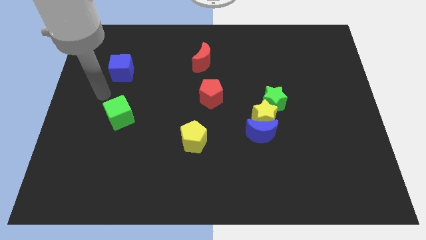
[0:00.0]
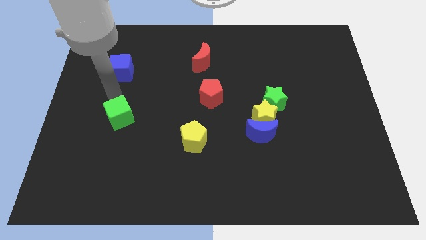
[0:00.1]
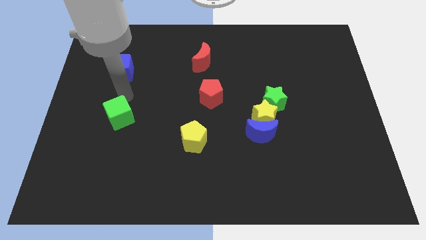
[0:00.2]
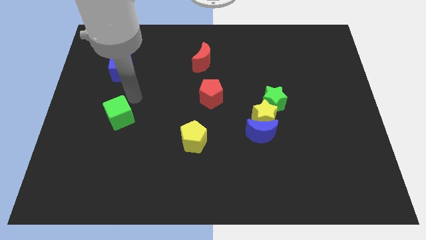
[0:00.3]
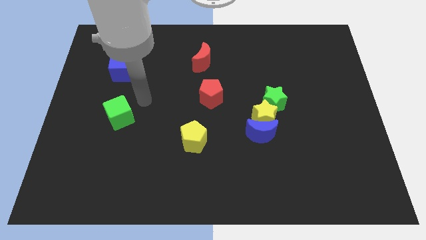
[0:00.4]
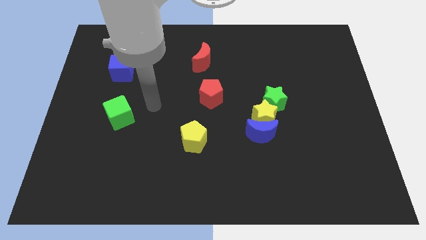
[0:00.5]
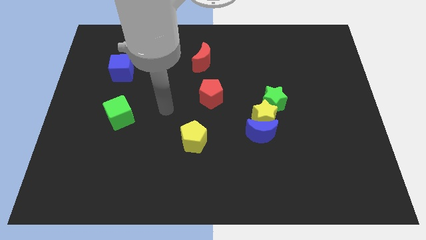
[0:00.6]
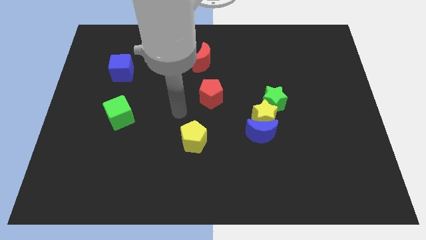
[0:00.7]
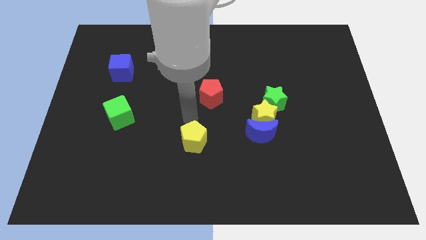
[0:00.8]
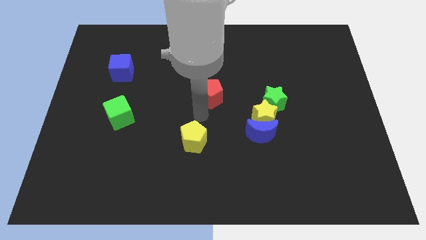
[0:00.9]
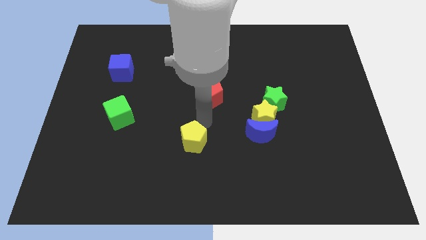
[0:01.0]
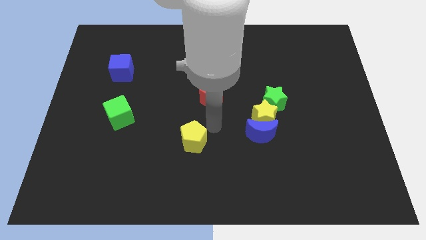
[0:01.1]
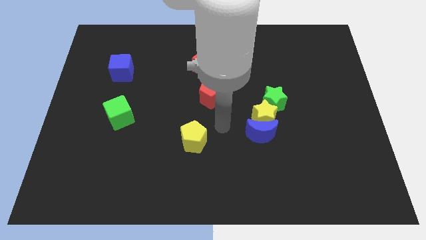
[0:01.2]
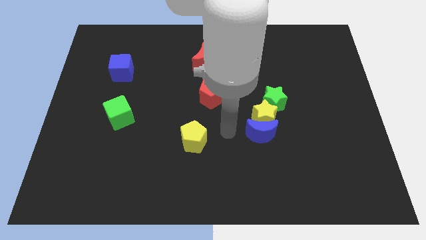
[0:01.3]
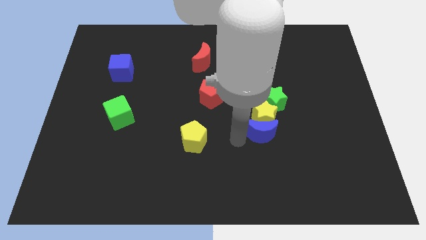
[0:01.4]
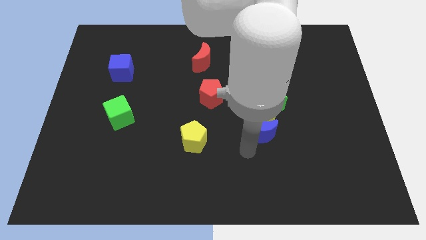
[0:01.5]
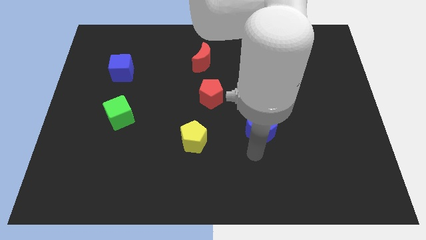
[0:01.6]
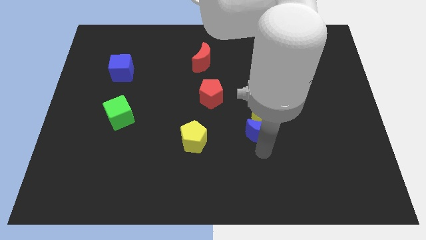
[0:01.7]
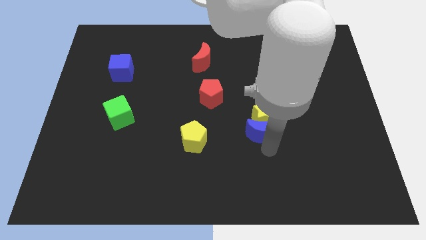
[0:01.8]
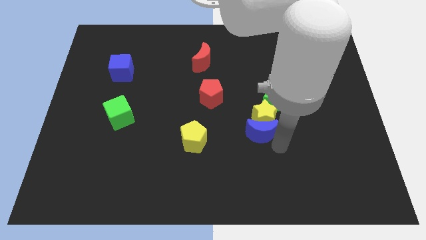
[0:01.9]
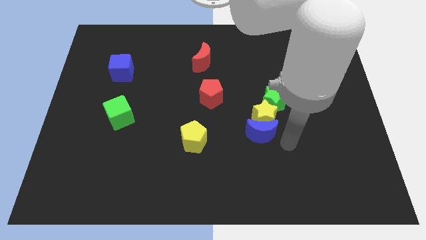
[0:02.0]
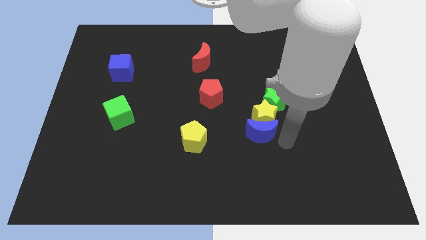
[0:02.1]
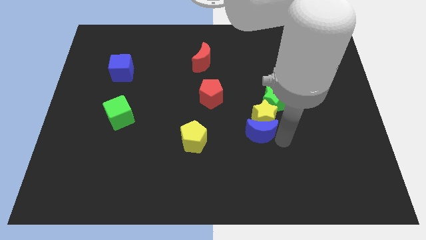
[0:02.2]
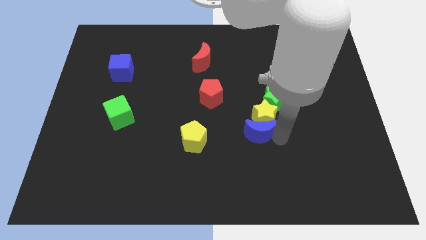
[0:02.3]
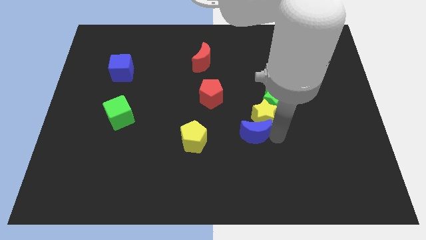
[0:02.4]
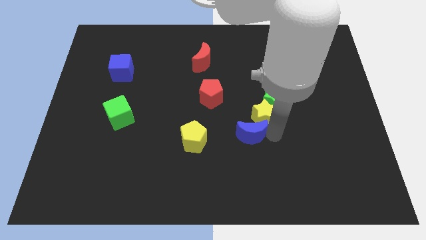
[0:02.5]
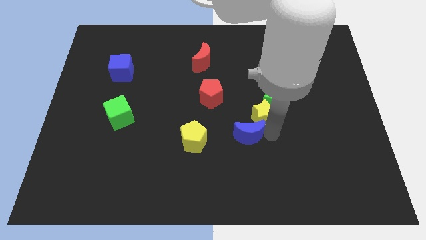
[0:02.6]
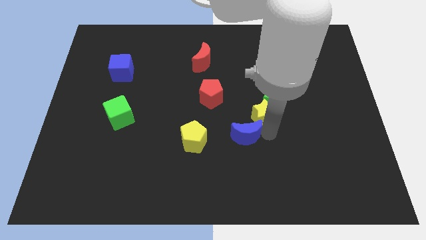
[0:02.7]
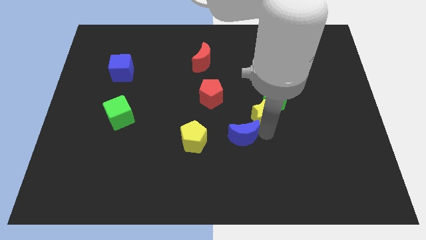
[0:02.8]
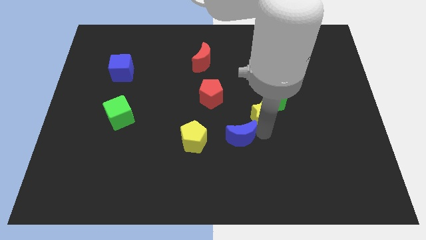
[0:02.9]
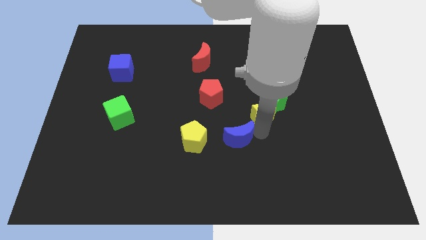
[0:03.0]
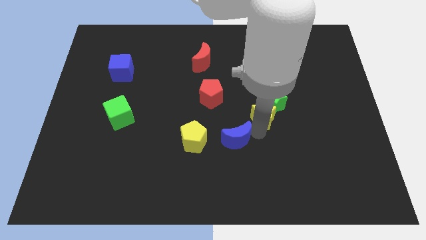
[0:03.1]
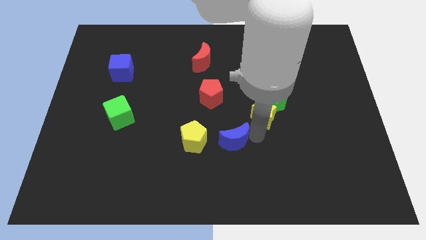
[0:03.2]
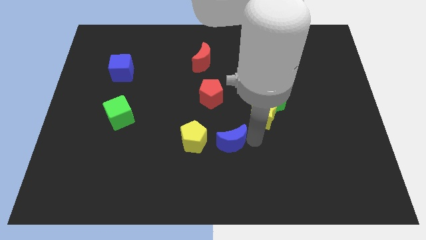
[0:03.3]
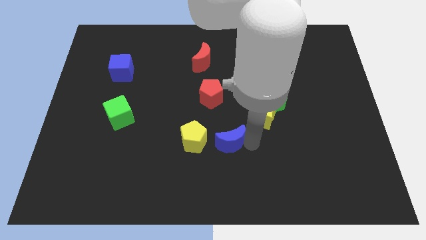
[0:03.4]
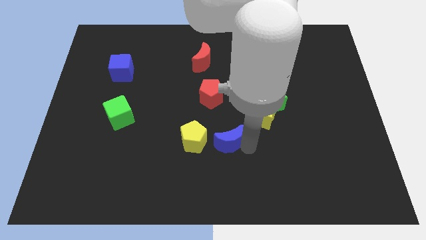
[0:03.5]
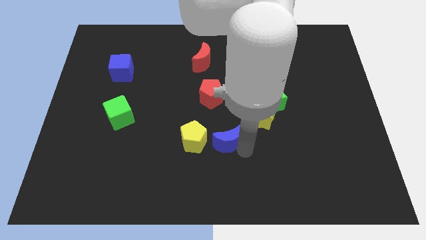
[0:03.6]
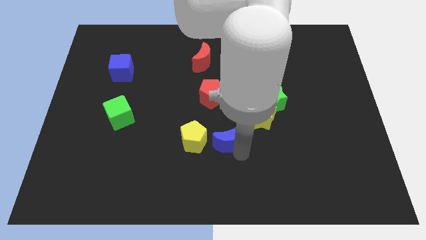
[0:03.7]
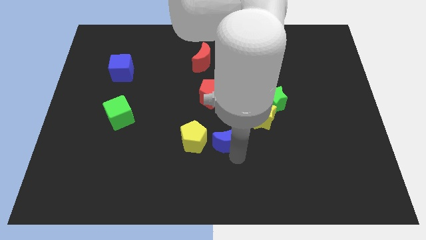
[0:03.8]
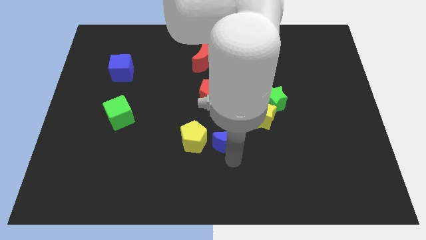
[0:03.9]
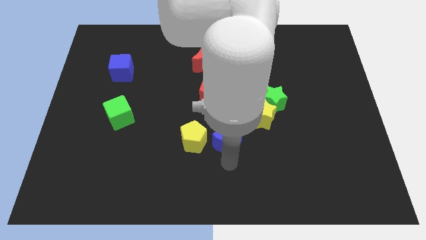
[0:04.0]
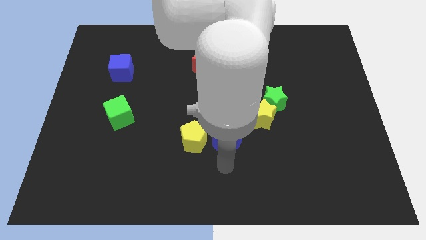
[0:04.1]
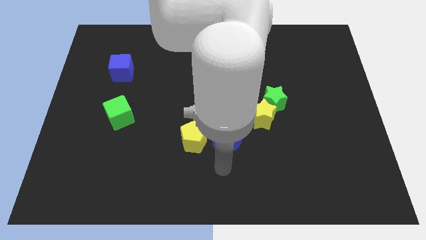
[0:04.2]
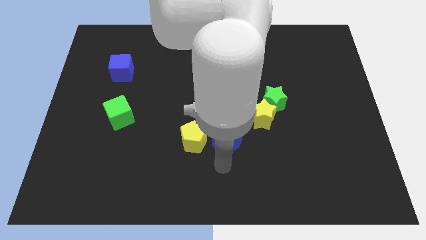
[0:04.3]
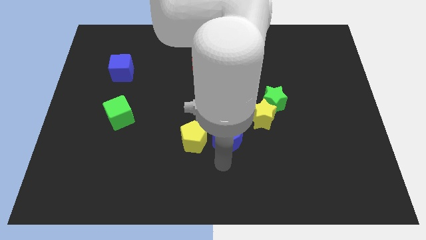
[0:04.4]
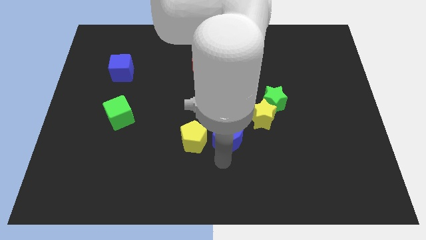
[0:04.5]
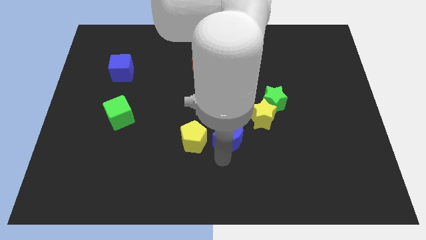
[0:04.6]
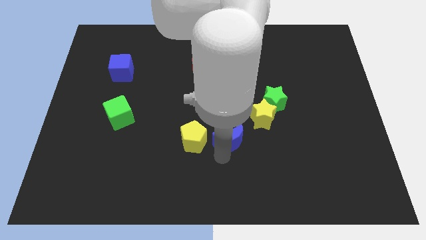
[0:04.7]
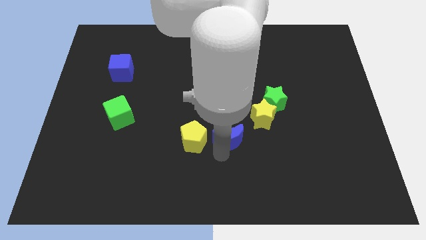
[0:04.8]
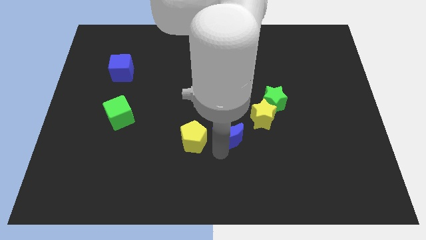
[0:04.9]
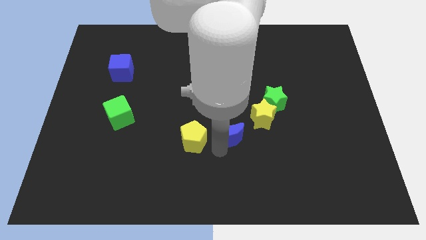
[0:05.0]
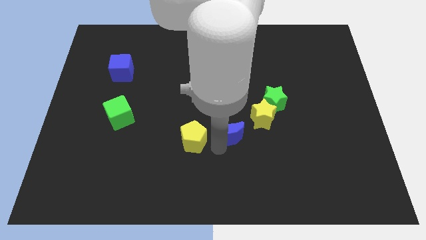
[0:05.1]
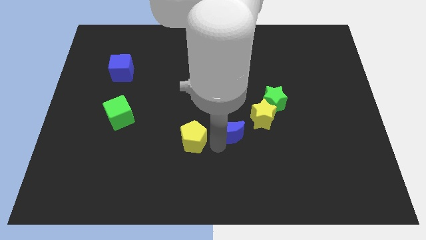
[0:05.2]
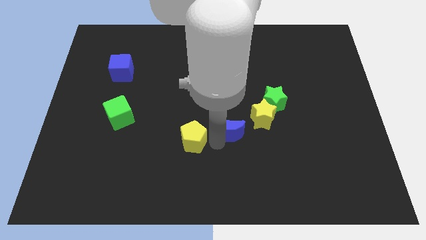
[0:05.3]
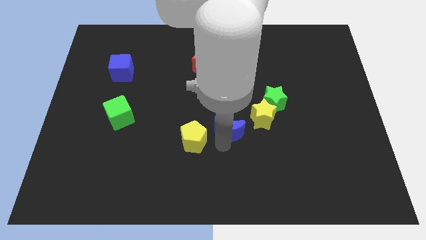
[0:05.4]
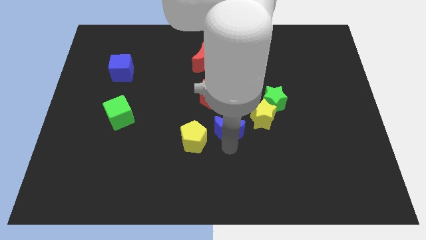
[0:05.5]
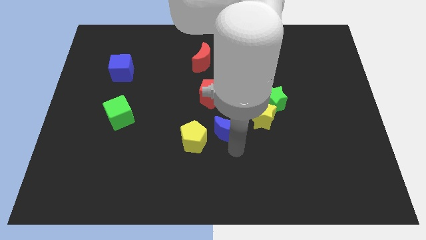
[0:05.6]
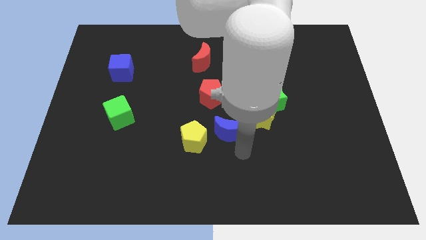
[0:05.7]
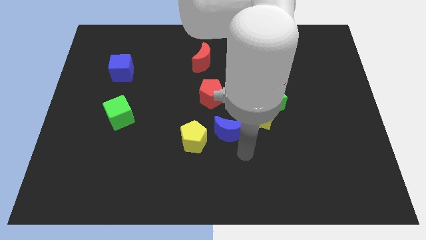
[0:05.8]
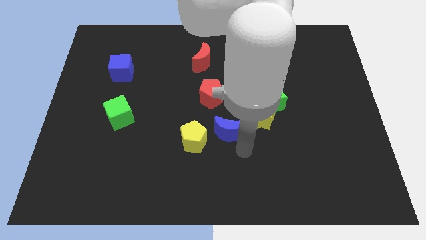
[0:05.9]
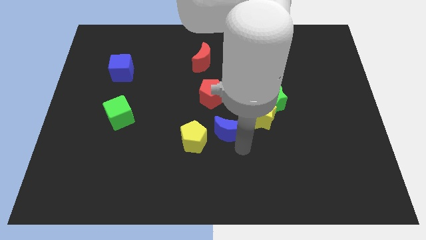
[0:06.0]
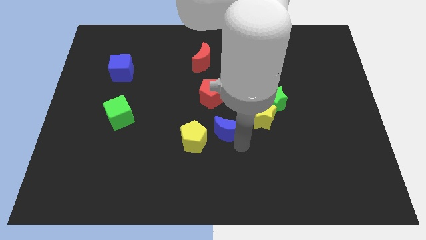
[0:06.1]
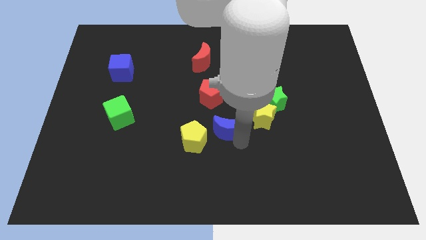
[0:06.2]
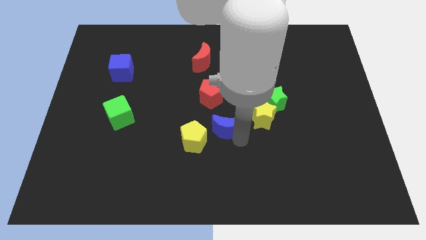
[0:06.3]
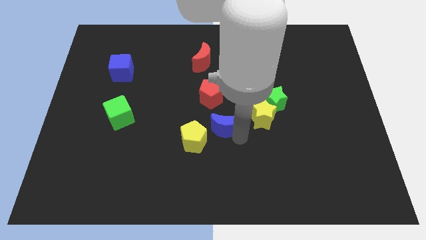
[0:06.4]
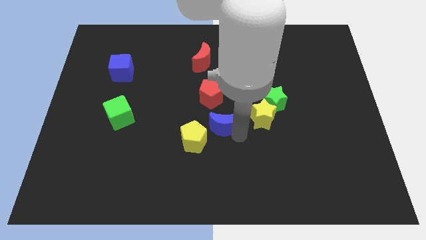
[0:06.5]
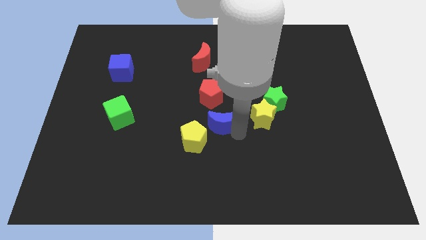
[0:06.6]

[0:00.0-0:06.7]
move the blue moon up and then to the left a little bit

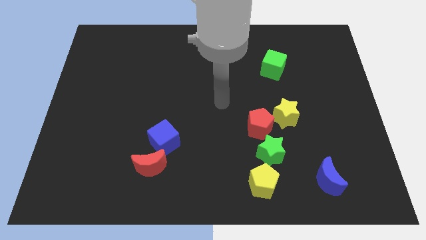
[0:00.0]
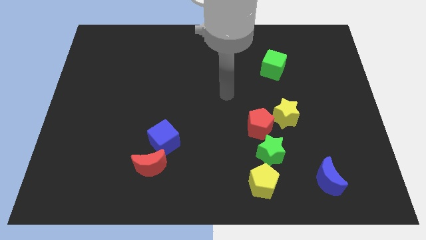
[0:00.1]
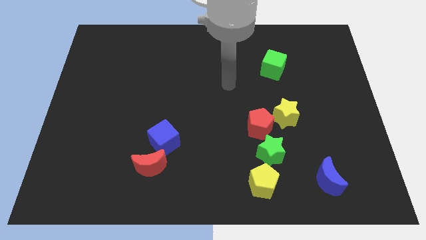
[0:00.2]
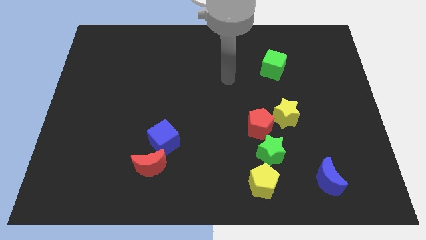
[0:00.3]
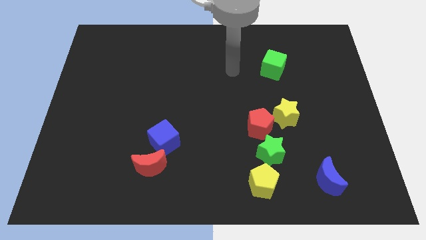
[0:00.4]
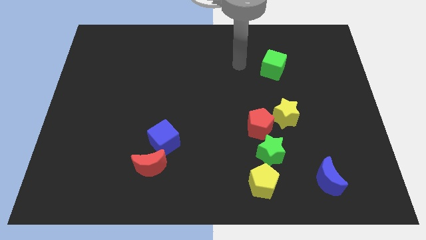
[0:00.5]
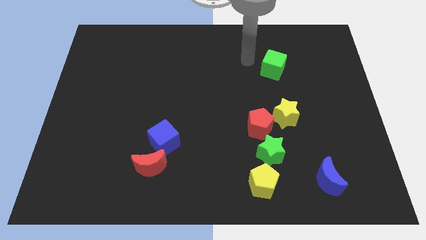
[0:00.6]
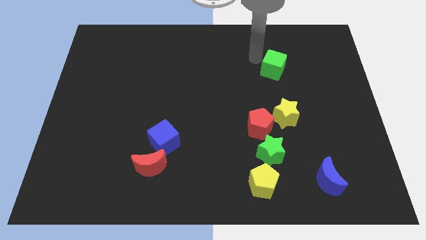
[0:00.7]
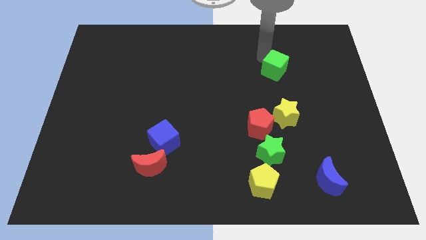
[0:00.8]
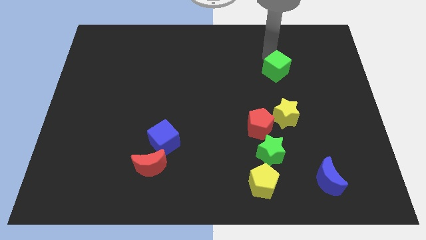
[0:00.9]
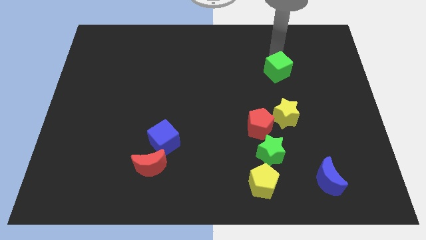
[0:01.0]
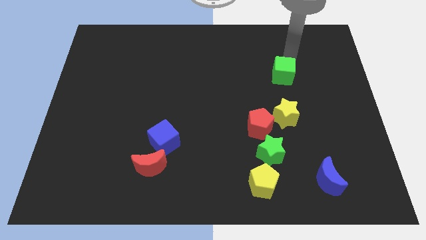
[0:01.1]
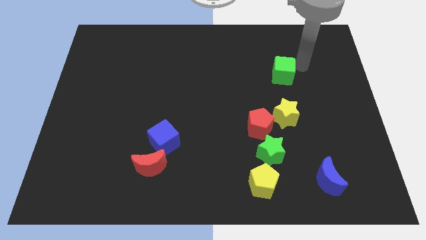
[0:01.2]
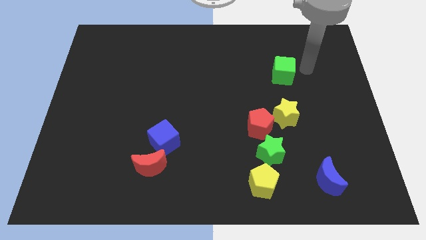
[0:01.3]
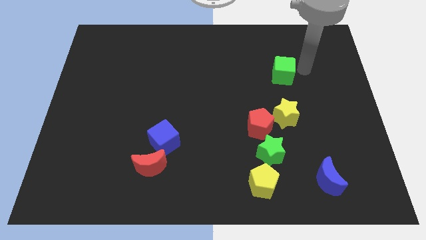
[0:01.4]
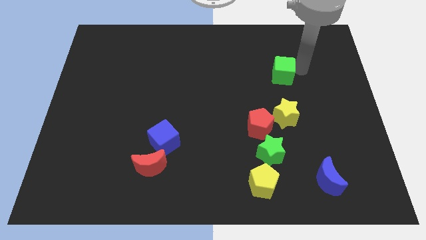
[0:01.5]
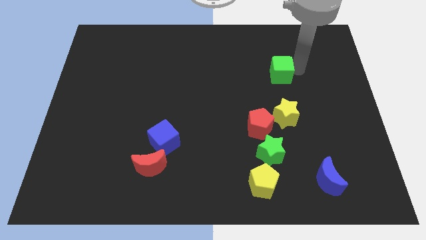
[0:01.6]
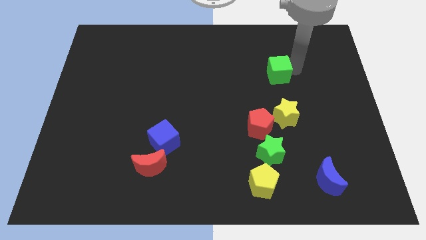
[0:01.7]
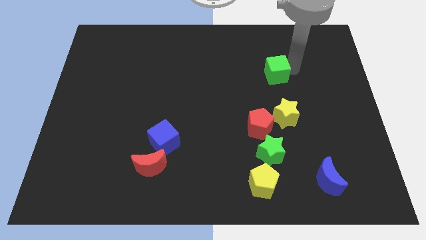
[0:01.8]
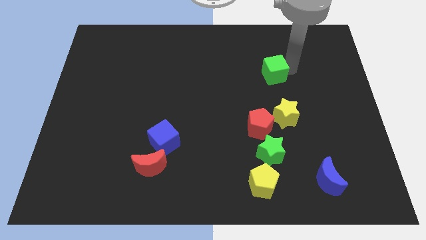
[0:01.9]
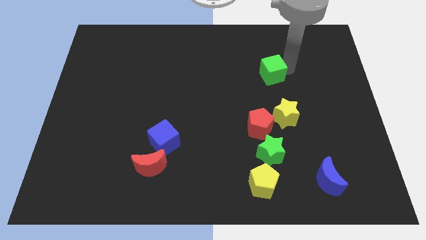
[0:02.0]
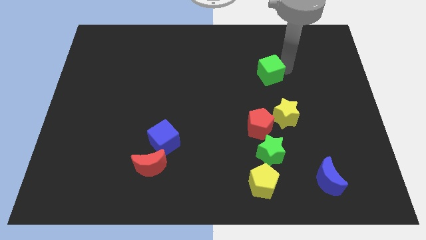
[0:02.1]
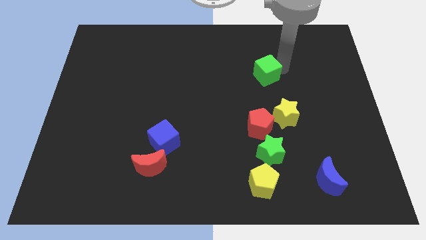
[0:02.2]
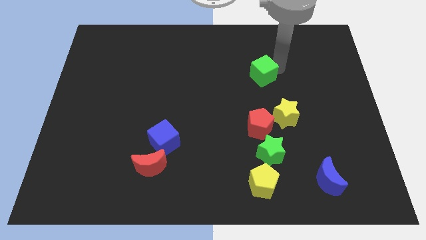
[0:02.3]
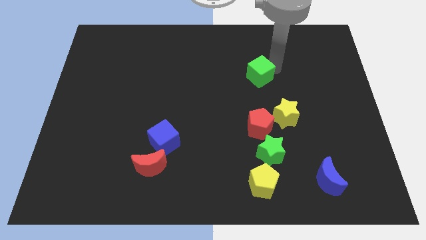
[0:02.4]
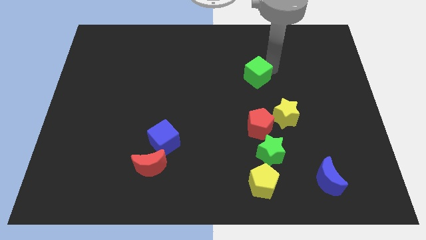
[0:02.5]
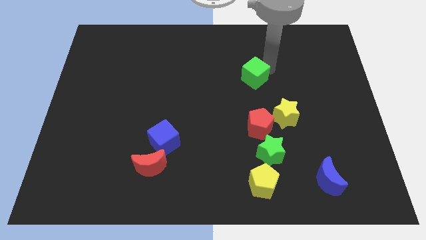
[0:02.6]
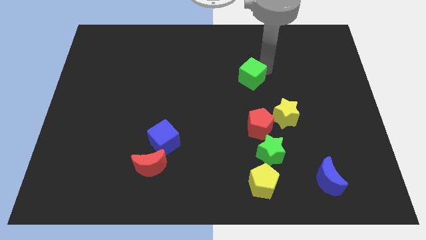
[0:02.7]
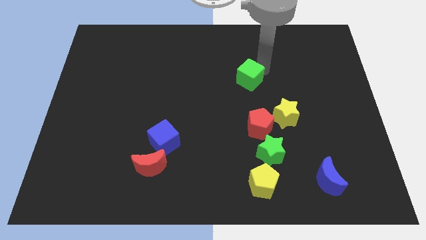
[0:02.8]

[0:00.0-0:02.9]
slide the green cube downwards and to the left diagonally a bit
